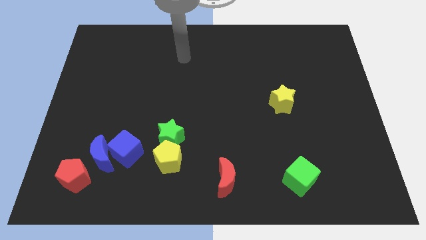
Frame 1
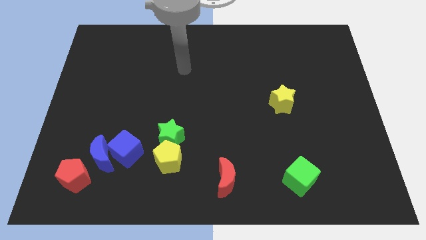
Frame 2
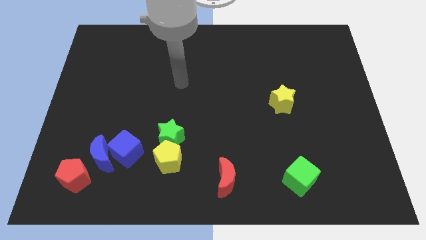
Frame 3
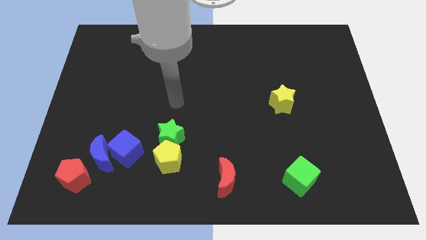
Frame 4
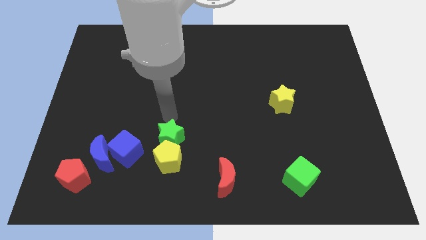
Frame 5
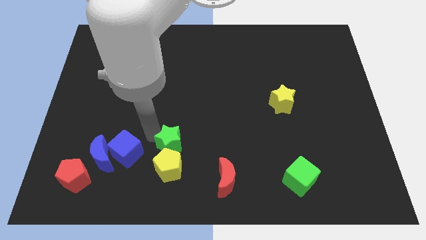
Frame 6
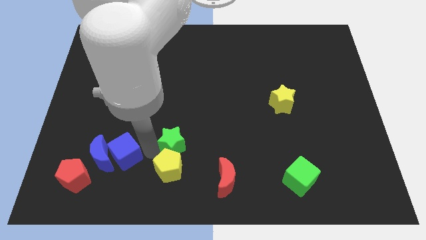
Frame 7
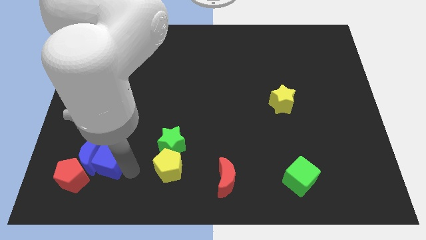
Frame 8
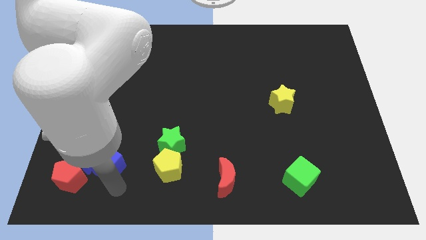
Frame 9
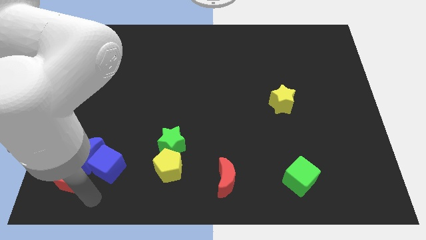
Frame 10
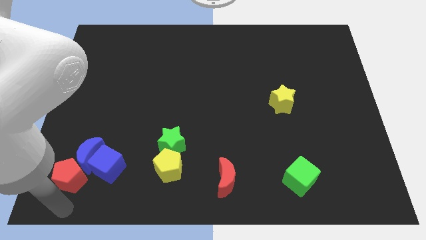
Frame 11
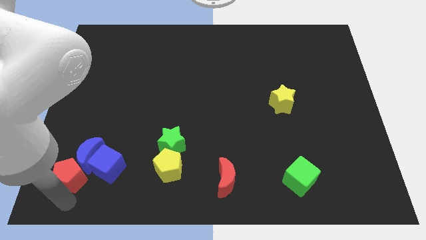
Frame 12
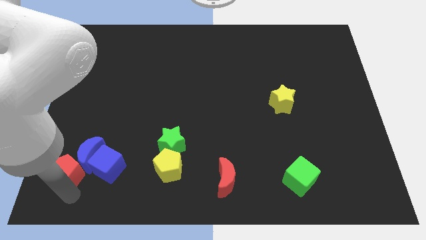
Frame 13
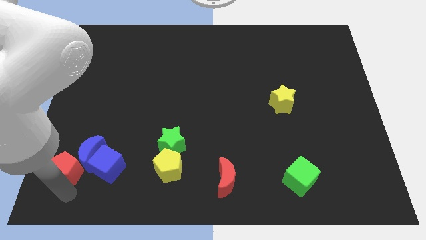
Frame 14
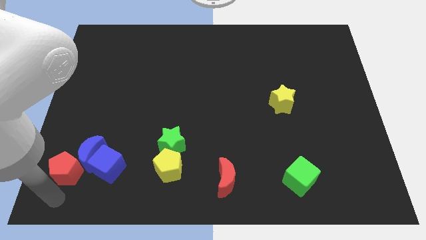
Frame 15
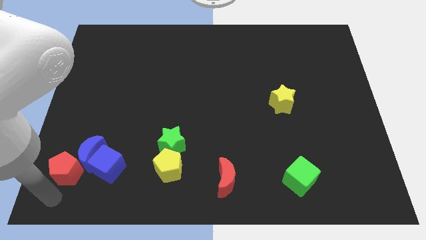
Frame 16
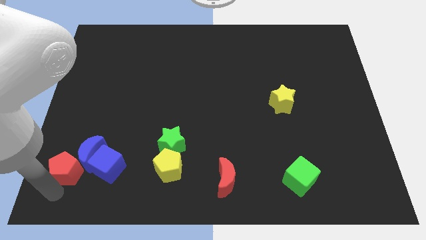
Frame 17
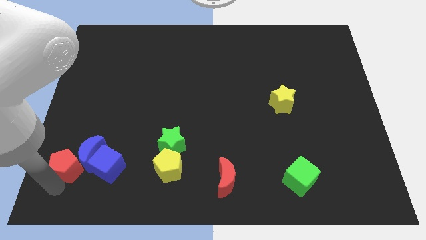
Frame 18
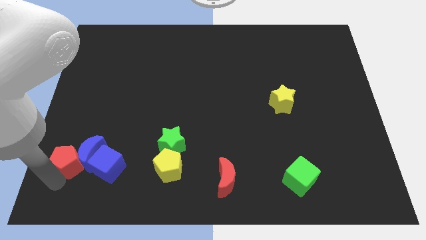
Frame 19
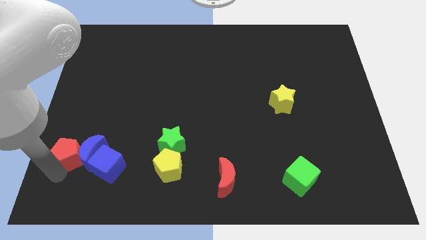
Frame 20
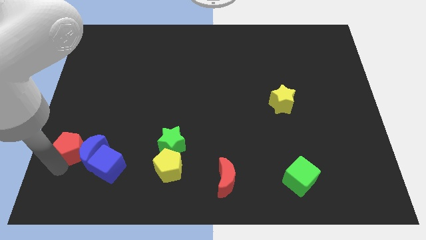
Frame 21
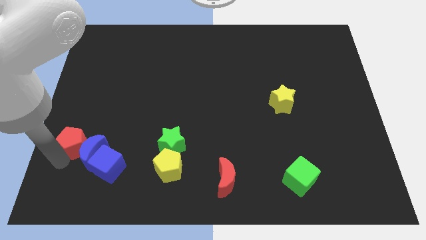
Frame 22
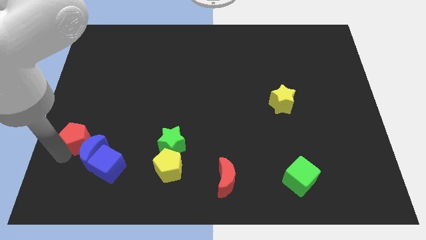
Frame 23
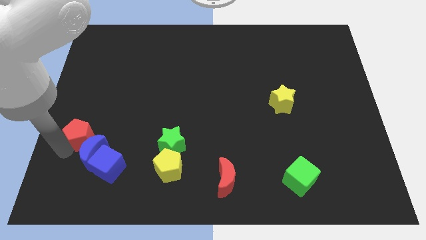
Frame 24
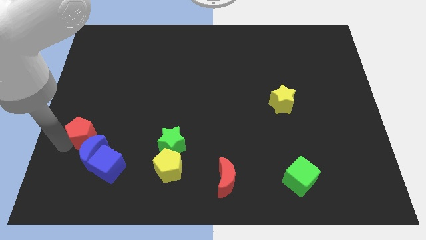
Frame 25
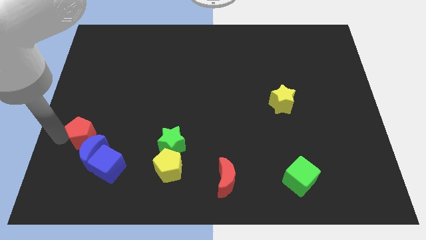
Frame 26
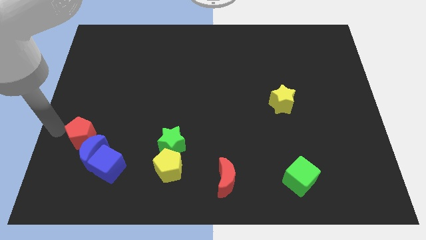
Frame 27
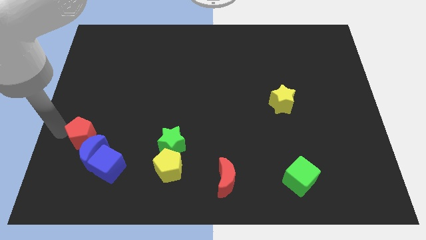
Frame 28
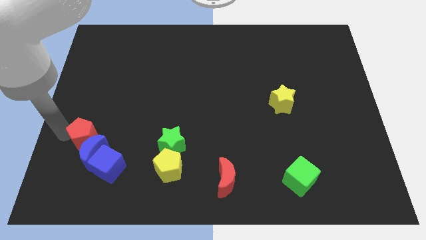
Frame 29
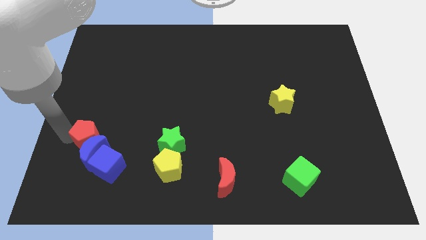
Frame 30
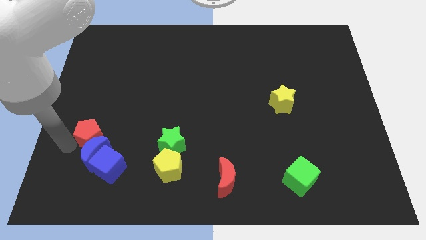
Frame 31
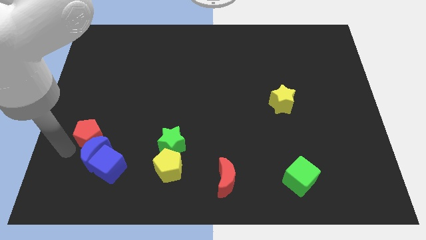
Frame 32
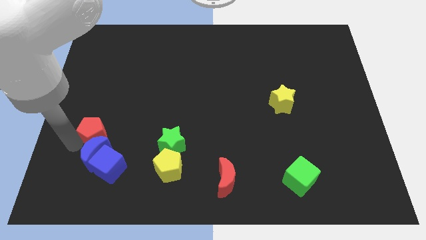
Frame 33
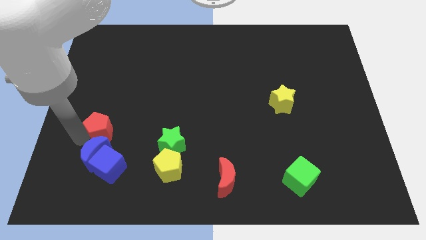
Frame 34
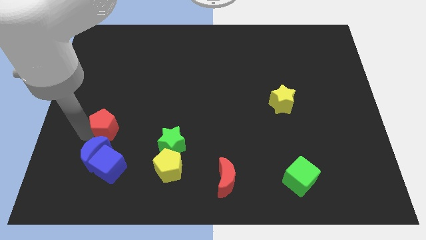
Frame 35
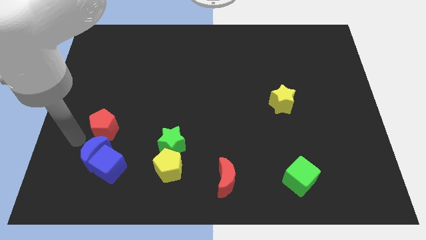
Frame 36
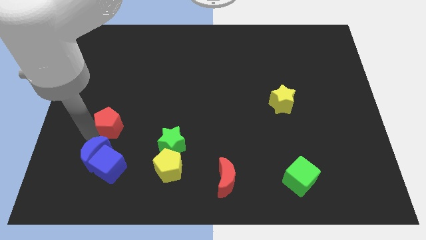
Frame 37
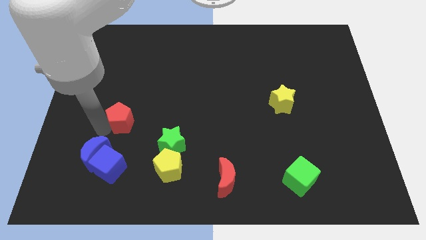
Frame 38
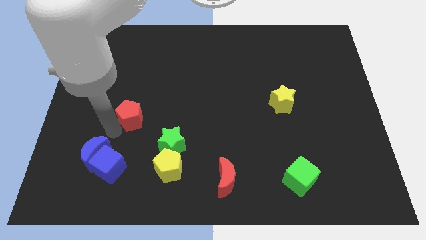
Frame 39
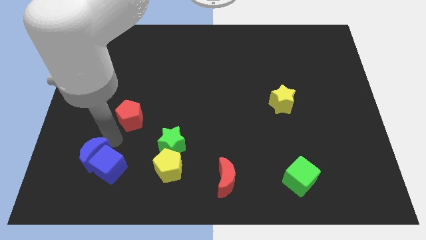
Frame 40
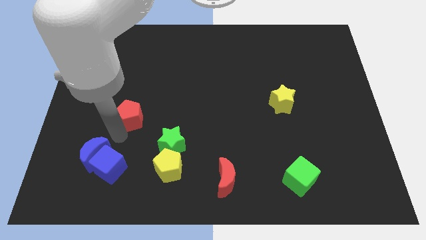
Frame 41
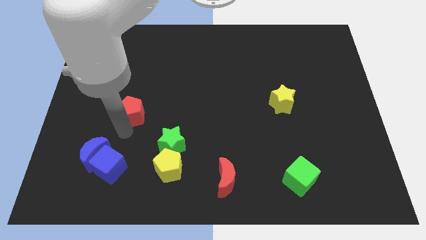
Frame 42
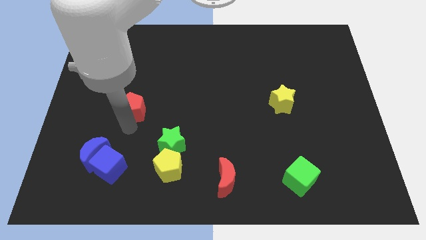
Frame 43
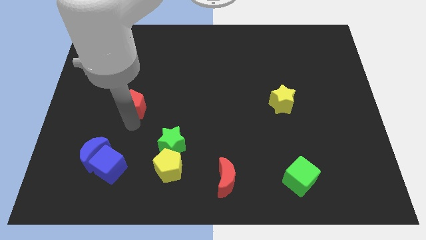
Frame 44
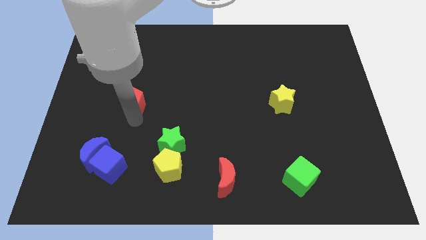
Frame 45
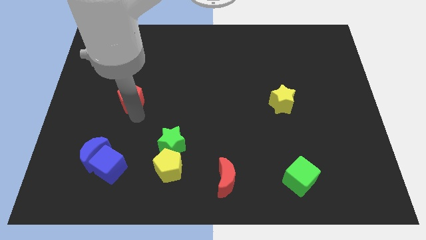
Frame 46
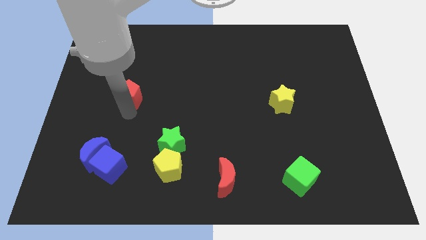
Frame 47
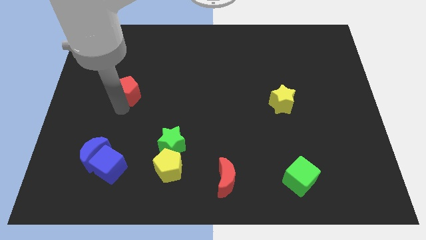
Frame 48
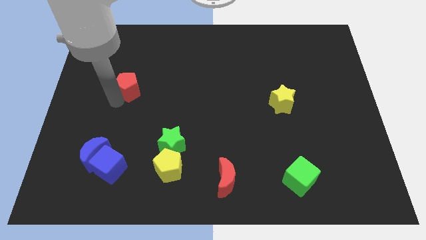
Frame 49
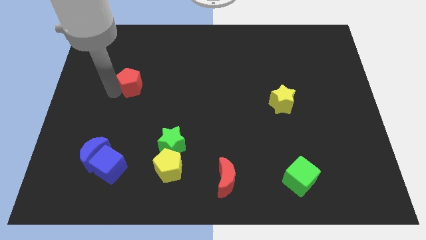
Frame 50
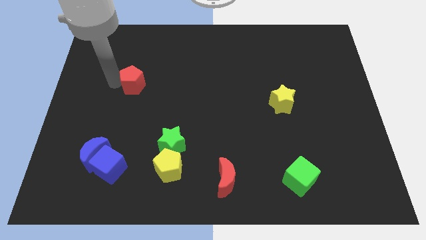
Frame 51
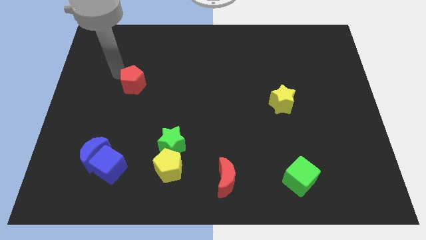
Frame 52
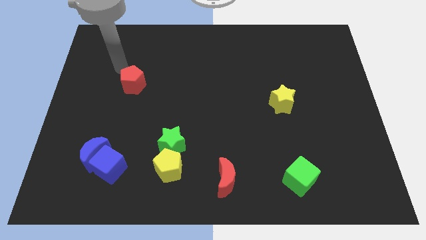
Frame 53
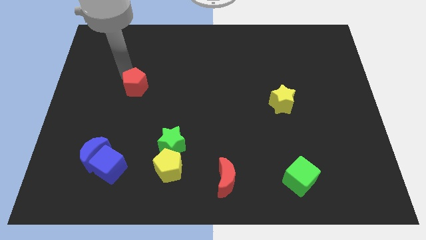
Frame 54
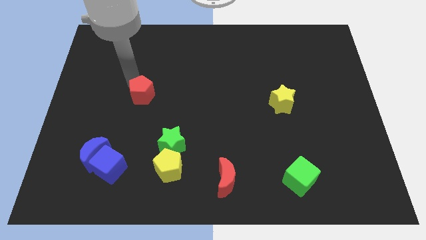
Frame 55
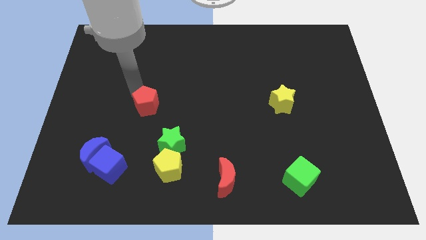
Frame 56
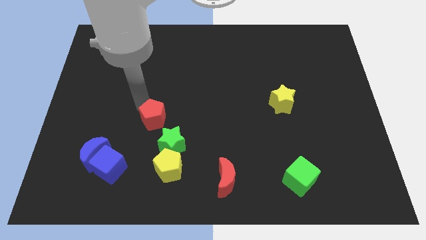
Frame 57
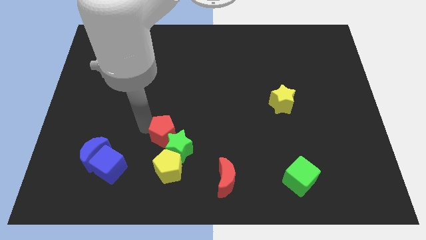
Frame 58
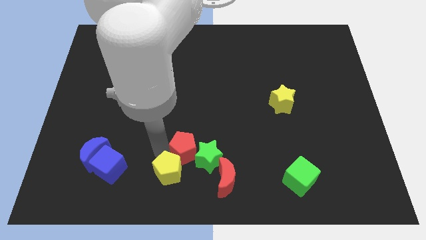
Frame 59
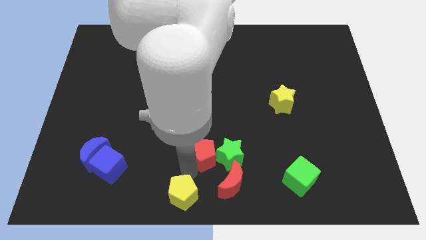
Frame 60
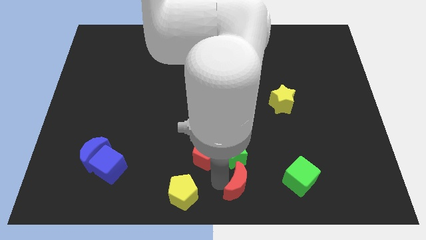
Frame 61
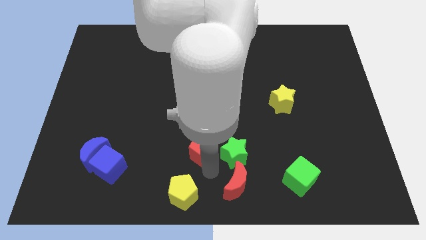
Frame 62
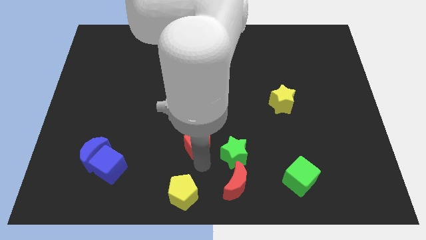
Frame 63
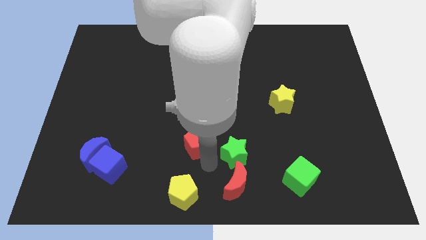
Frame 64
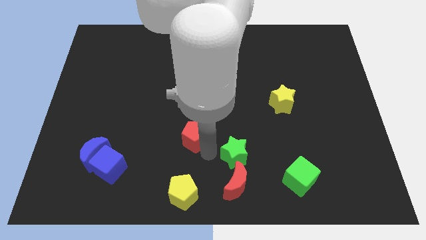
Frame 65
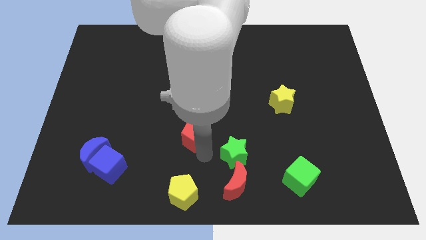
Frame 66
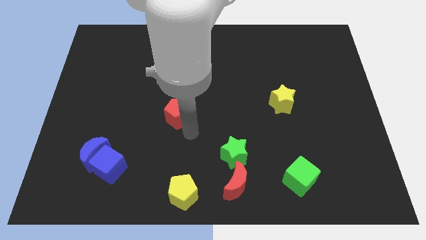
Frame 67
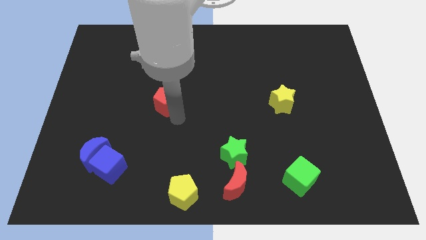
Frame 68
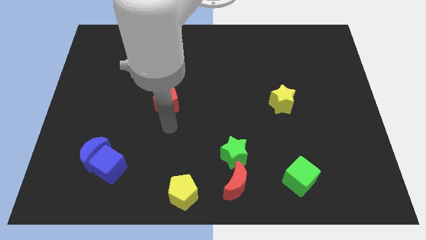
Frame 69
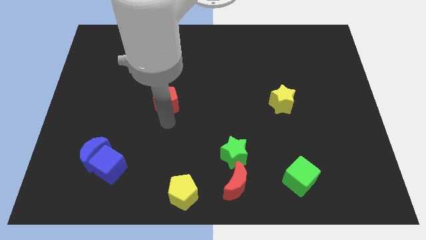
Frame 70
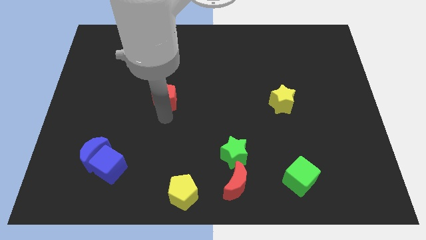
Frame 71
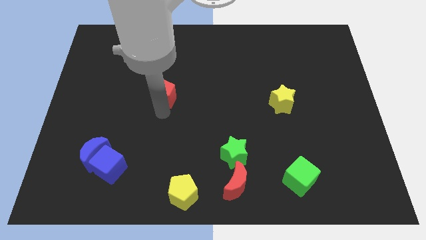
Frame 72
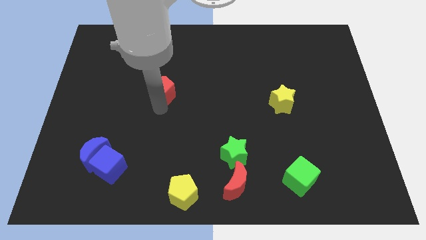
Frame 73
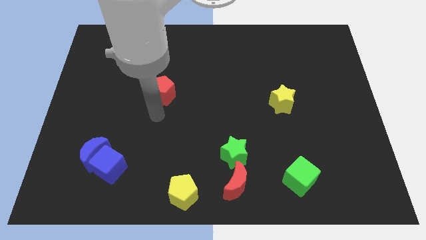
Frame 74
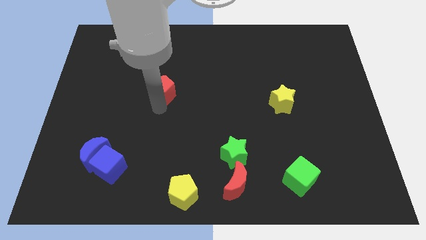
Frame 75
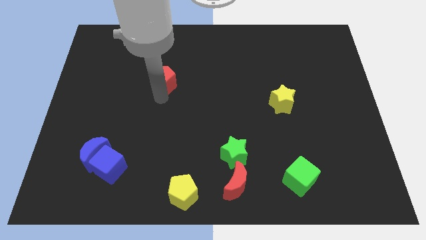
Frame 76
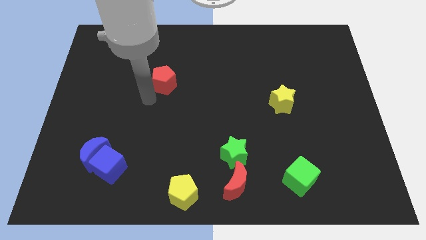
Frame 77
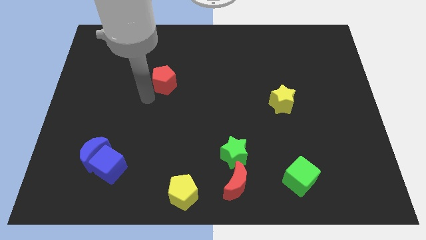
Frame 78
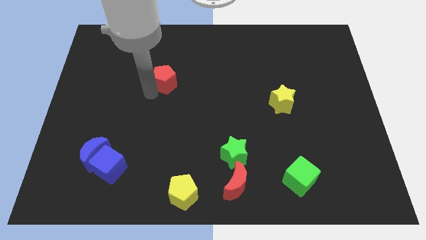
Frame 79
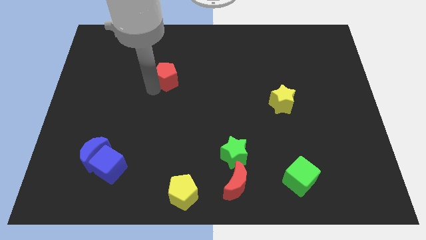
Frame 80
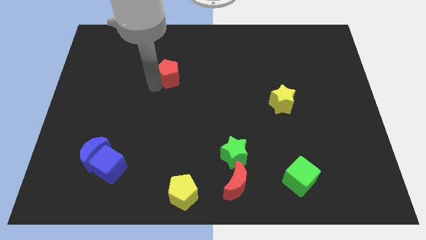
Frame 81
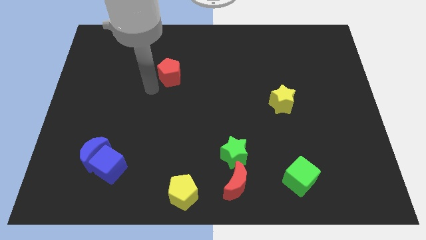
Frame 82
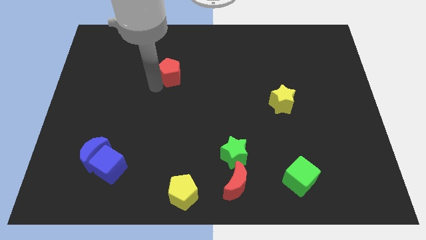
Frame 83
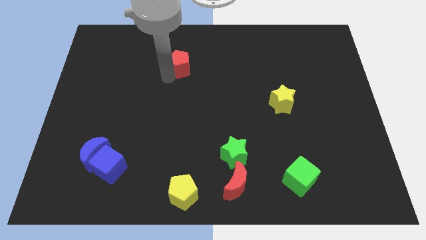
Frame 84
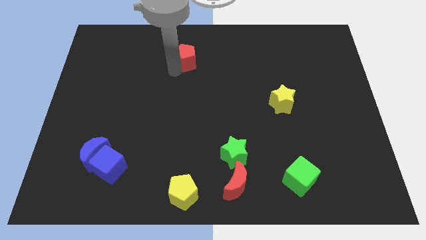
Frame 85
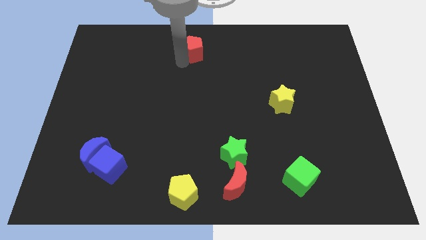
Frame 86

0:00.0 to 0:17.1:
move the red pentagon to the towards your base
